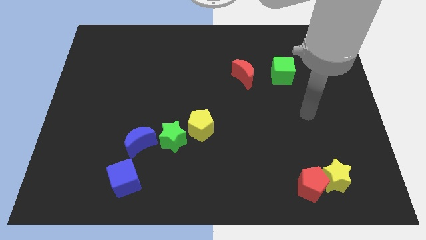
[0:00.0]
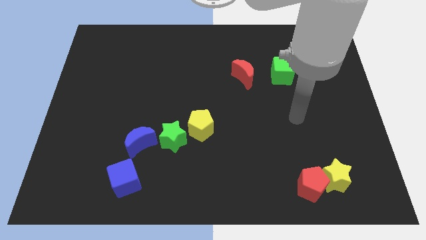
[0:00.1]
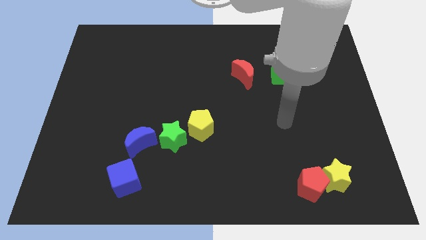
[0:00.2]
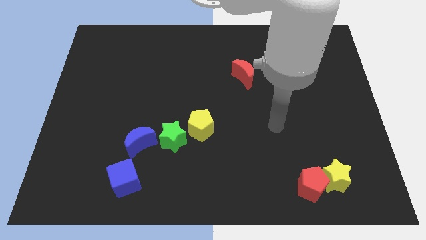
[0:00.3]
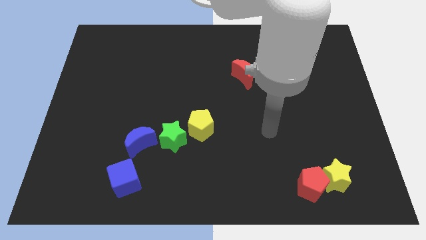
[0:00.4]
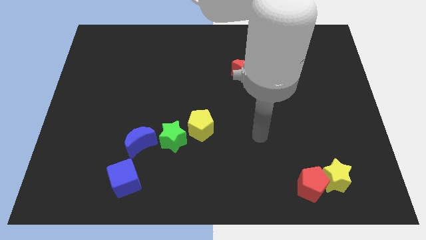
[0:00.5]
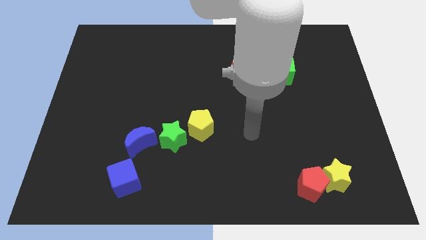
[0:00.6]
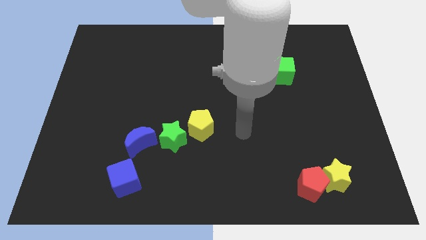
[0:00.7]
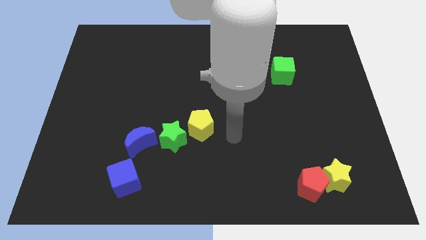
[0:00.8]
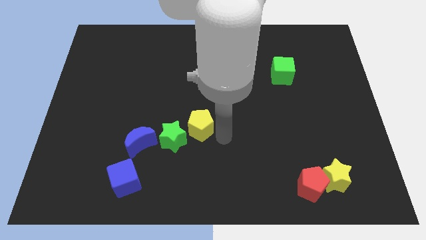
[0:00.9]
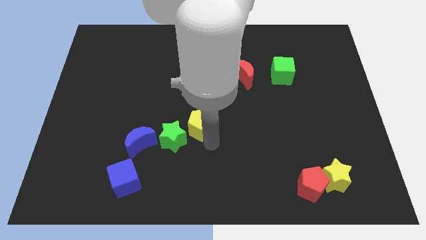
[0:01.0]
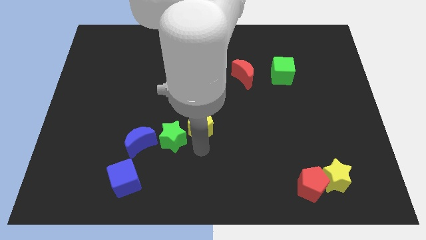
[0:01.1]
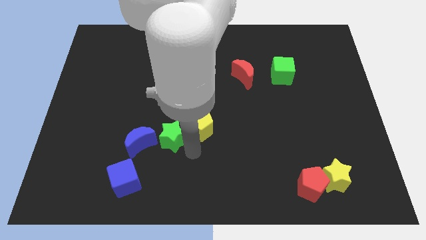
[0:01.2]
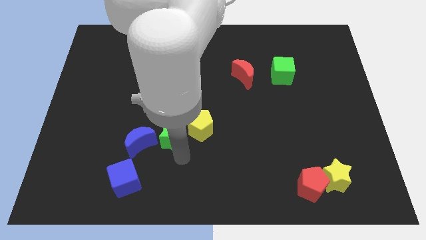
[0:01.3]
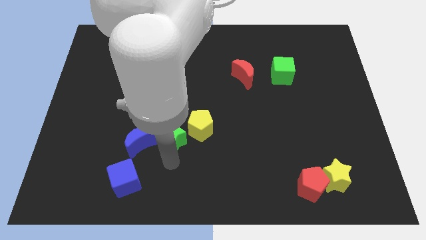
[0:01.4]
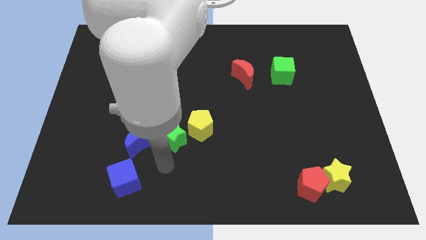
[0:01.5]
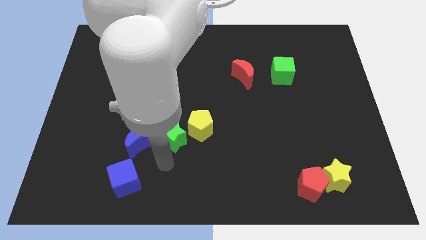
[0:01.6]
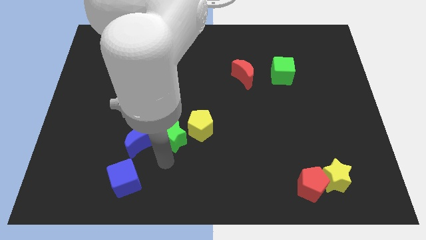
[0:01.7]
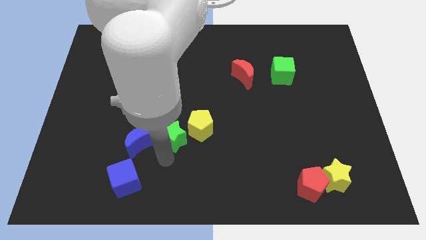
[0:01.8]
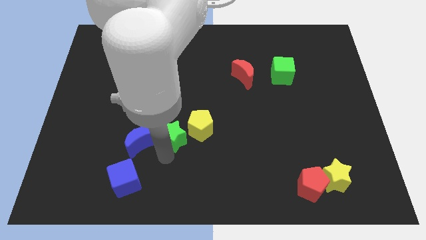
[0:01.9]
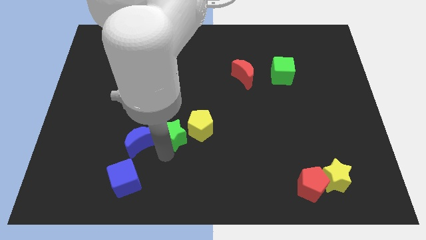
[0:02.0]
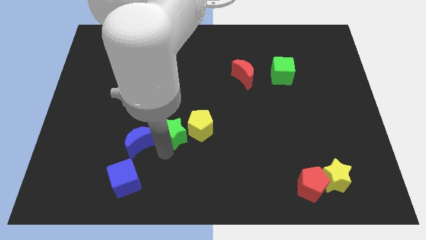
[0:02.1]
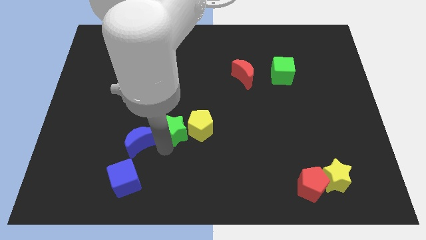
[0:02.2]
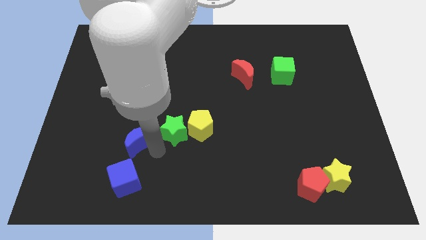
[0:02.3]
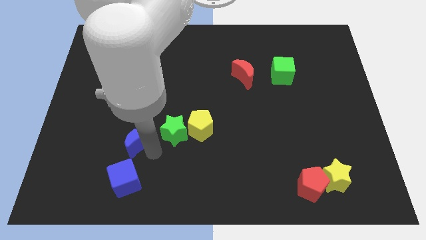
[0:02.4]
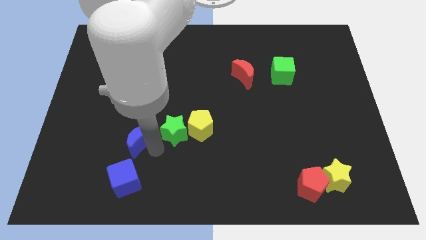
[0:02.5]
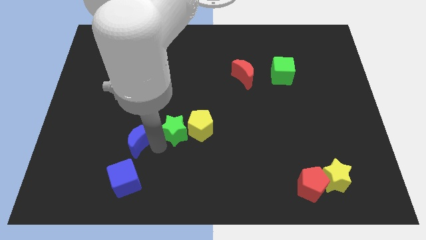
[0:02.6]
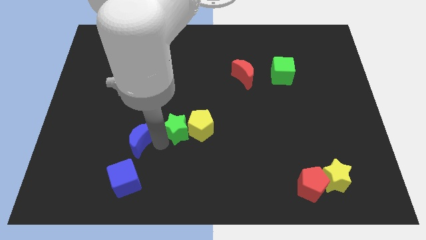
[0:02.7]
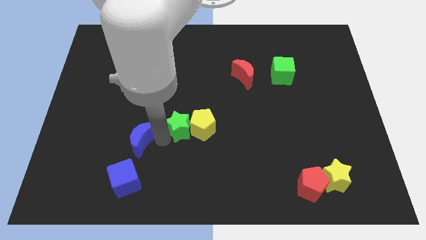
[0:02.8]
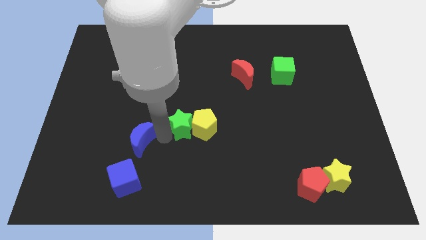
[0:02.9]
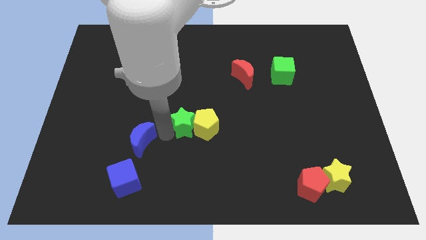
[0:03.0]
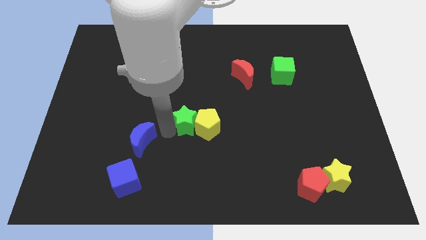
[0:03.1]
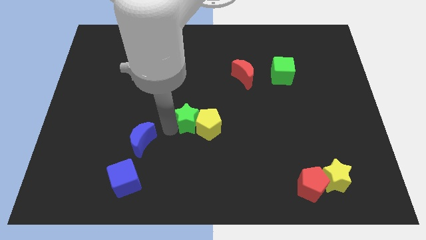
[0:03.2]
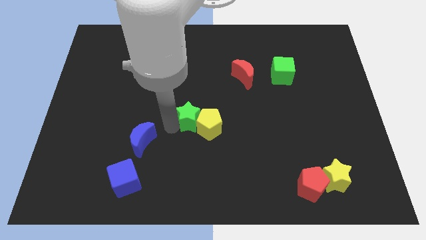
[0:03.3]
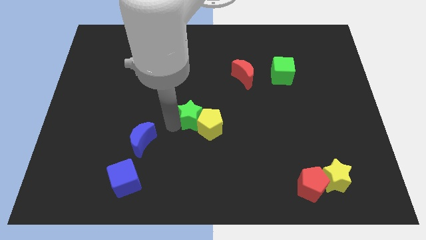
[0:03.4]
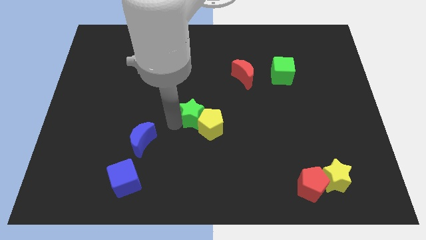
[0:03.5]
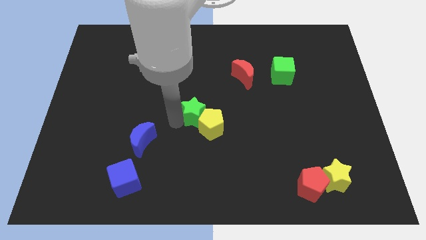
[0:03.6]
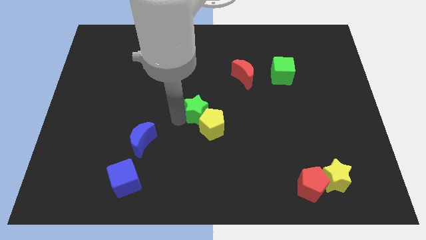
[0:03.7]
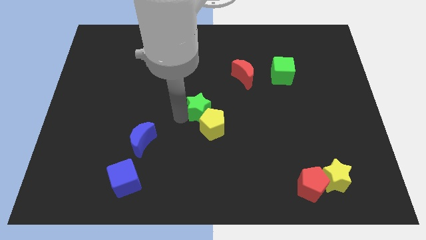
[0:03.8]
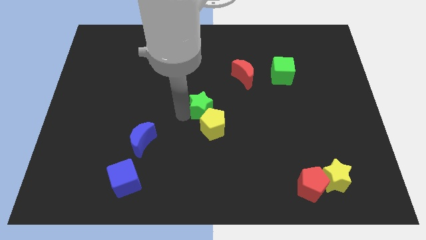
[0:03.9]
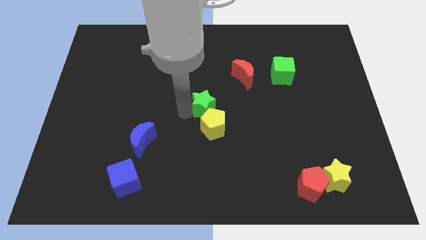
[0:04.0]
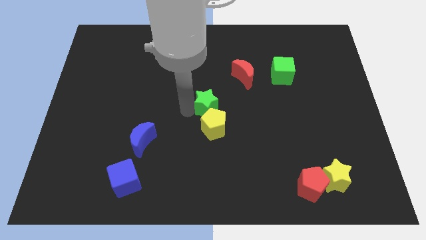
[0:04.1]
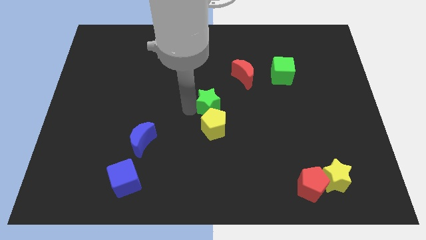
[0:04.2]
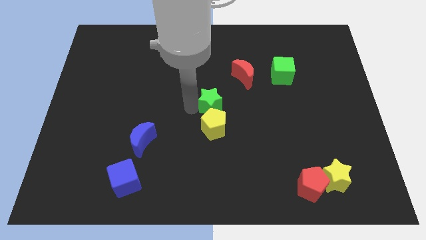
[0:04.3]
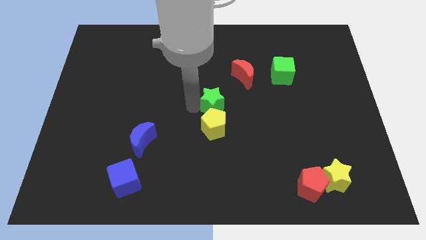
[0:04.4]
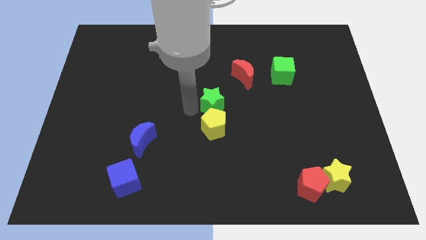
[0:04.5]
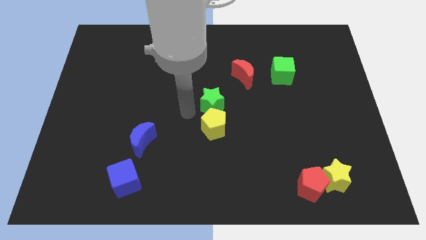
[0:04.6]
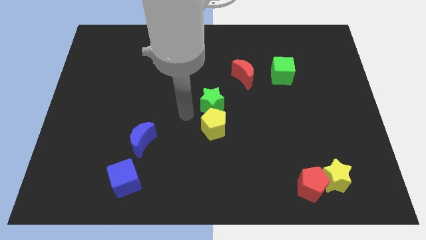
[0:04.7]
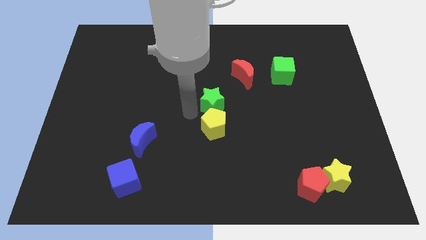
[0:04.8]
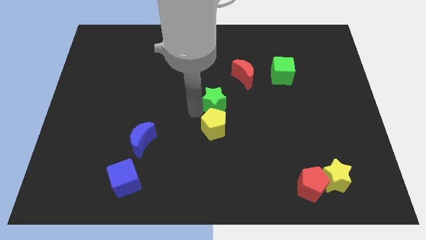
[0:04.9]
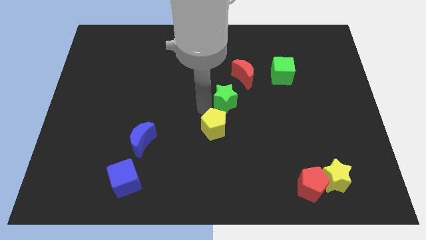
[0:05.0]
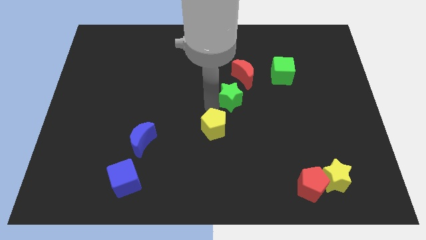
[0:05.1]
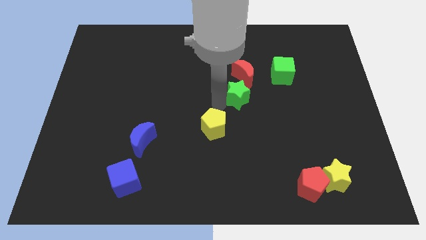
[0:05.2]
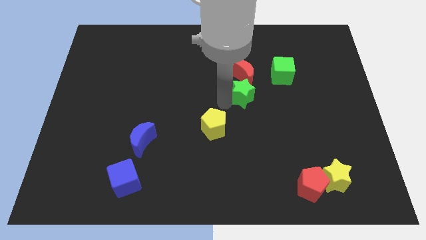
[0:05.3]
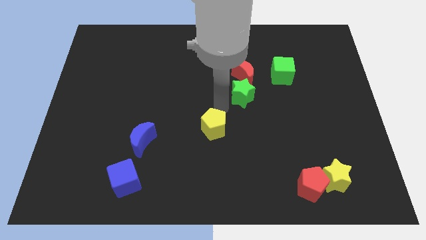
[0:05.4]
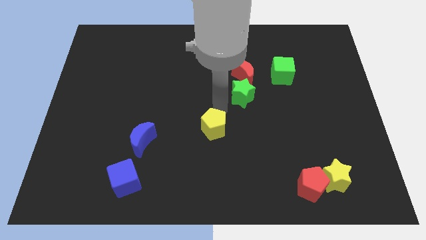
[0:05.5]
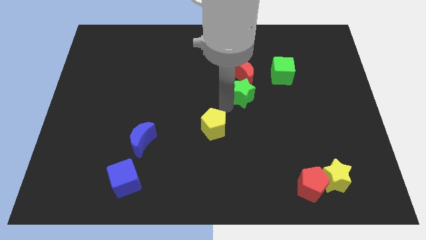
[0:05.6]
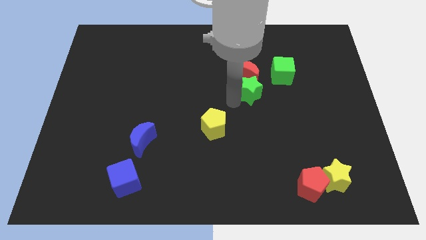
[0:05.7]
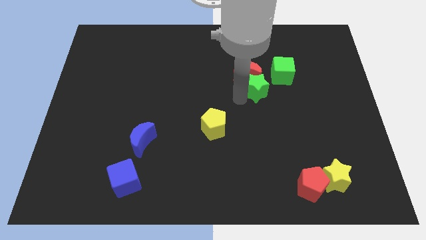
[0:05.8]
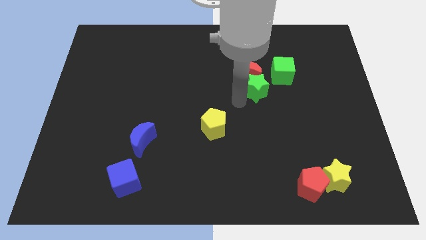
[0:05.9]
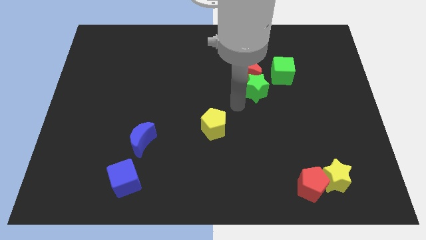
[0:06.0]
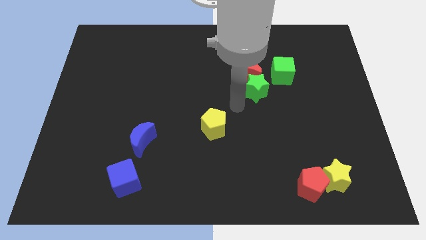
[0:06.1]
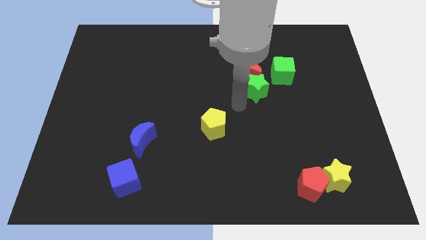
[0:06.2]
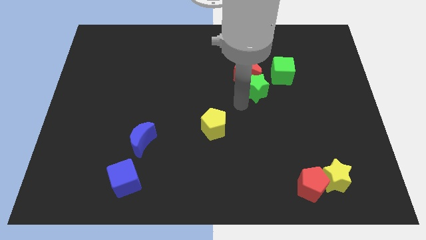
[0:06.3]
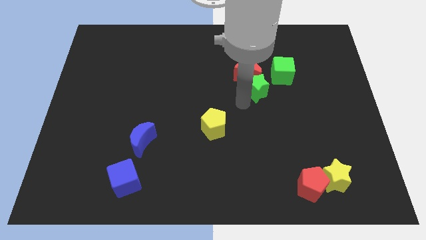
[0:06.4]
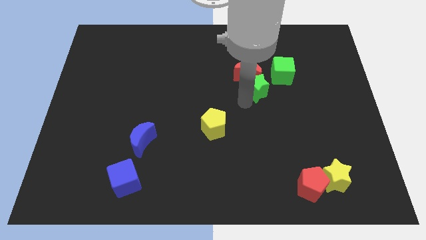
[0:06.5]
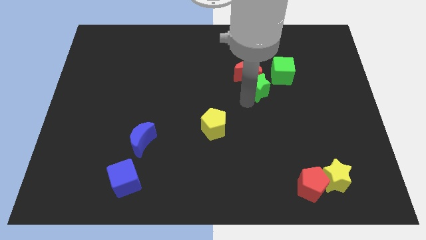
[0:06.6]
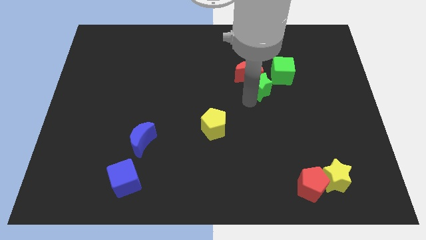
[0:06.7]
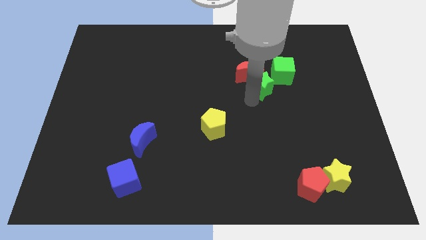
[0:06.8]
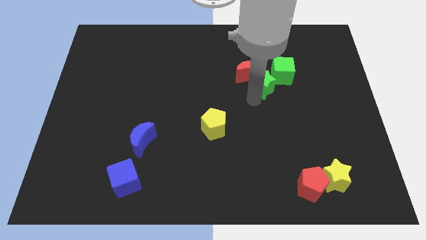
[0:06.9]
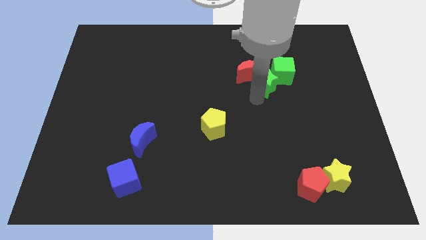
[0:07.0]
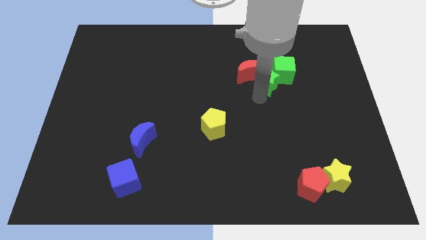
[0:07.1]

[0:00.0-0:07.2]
move the green star close to the green cube

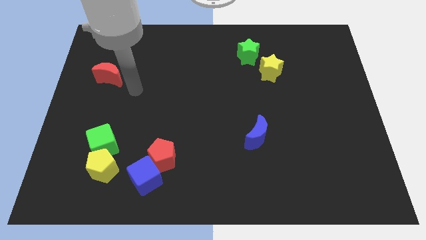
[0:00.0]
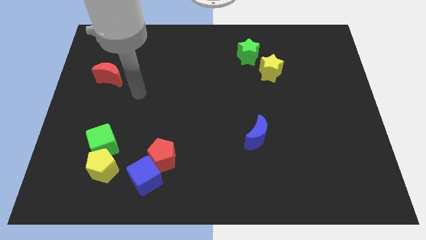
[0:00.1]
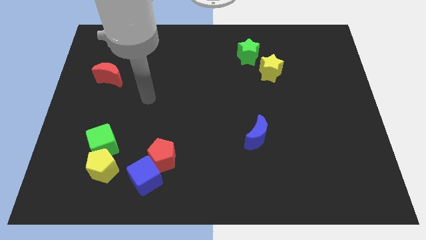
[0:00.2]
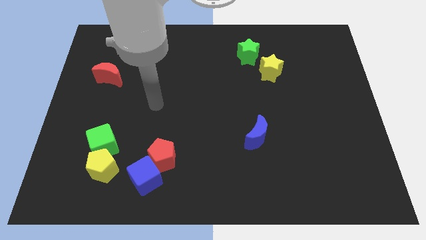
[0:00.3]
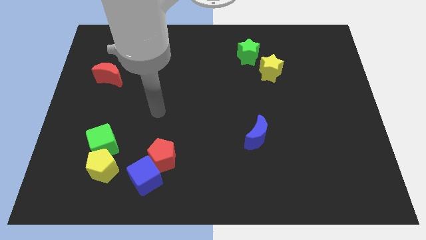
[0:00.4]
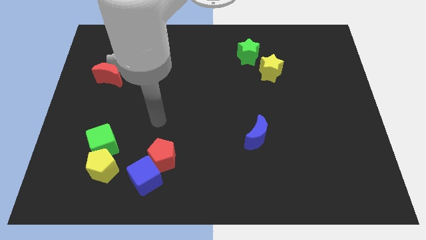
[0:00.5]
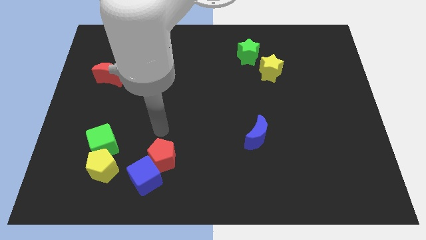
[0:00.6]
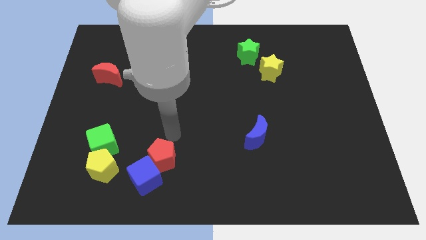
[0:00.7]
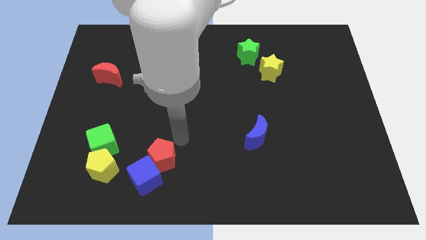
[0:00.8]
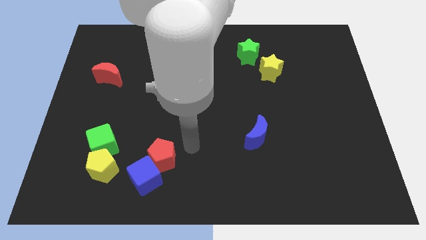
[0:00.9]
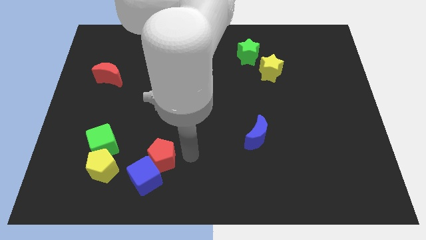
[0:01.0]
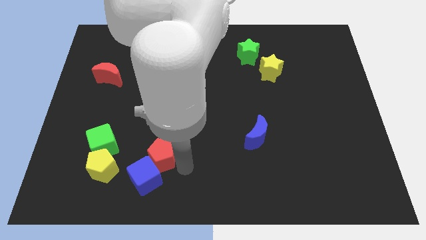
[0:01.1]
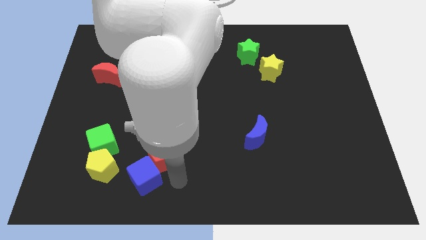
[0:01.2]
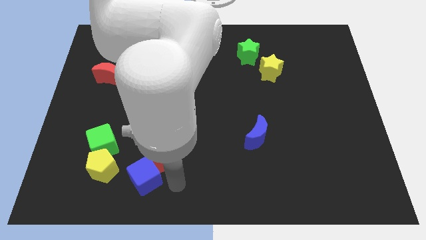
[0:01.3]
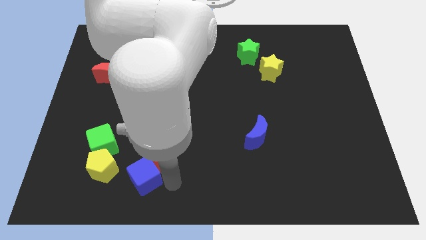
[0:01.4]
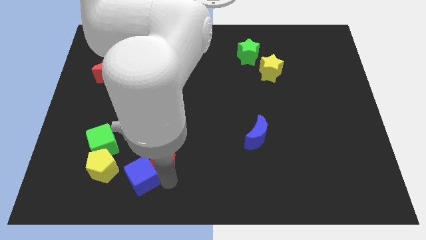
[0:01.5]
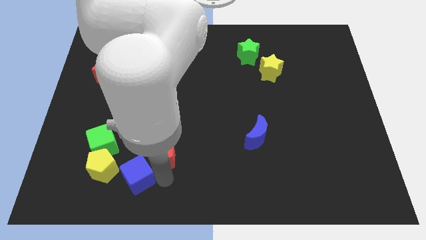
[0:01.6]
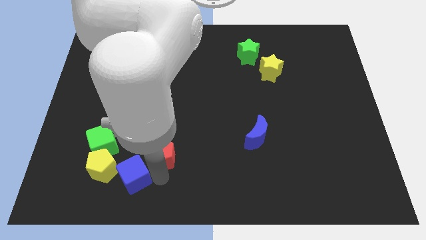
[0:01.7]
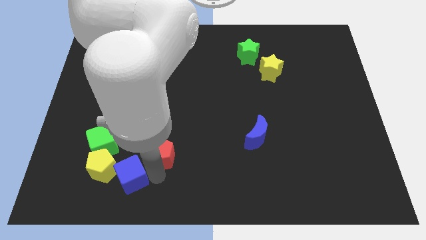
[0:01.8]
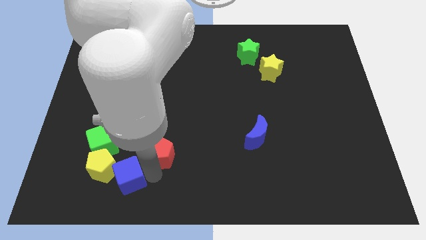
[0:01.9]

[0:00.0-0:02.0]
move the blue cube to the yellow pentagon
